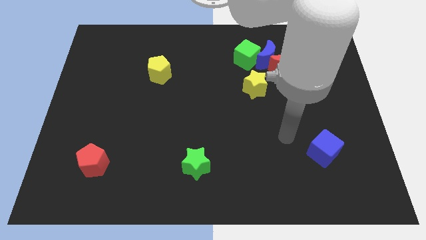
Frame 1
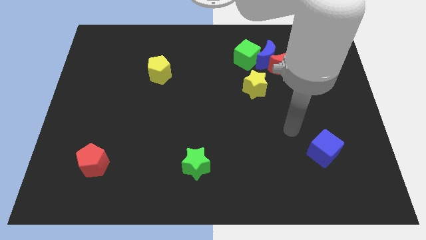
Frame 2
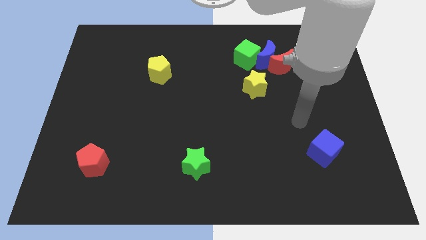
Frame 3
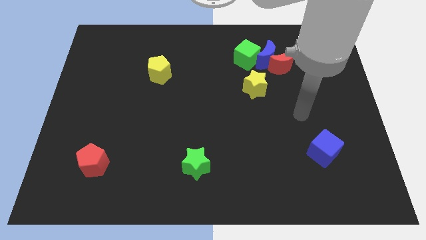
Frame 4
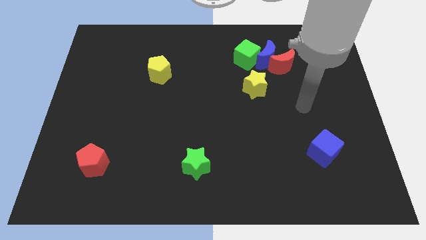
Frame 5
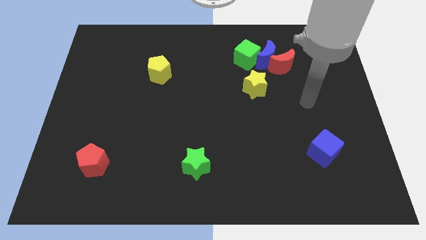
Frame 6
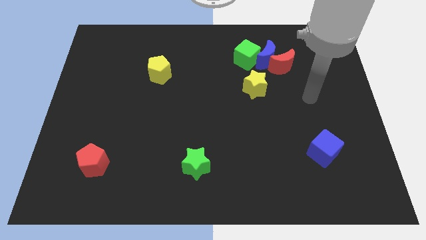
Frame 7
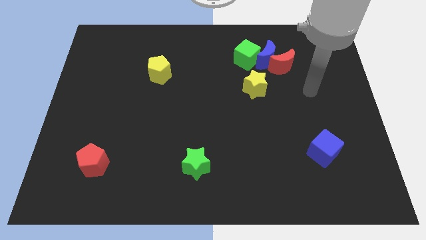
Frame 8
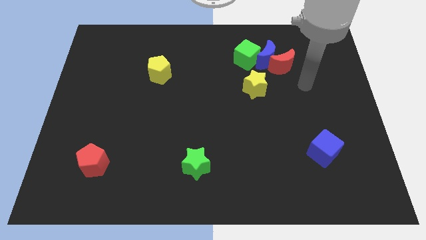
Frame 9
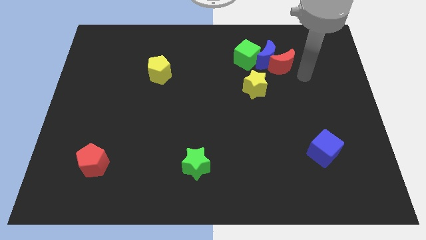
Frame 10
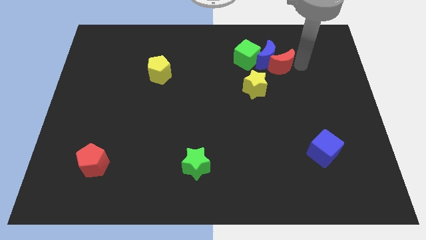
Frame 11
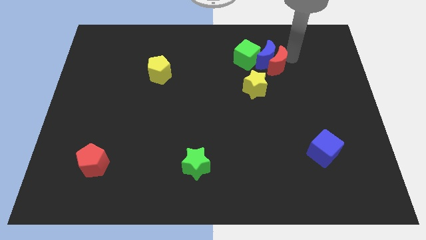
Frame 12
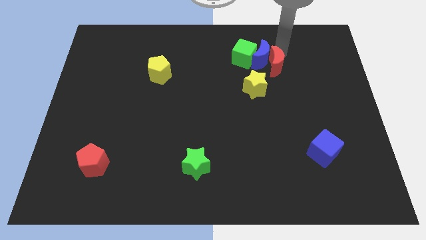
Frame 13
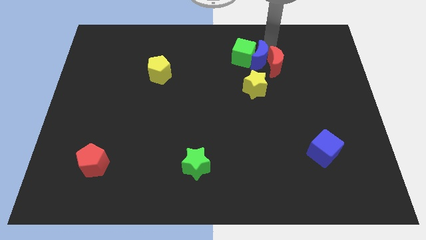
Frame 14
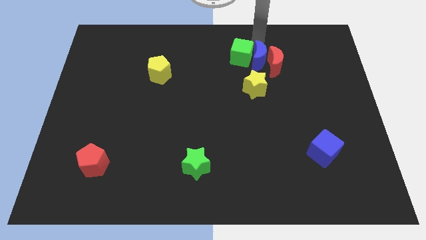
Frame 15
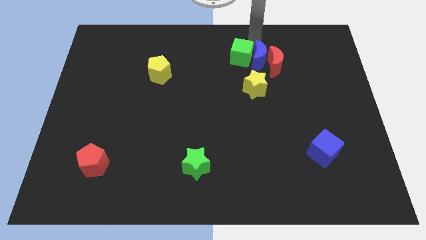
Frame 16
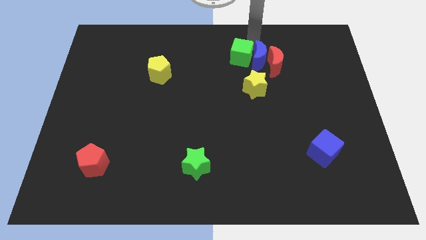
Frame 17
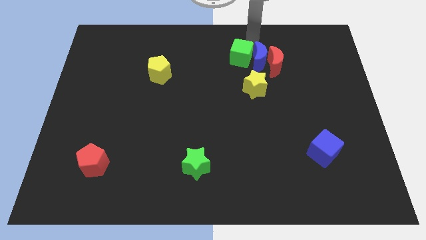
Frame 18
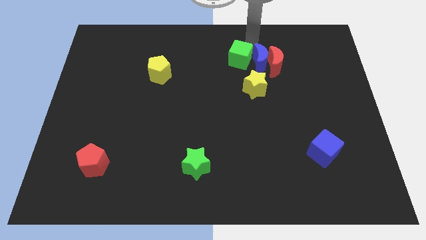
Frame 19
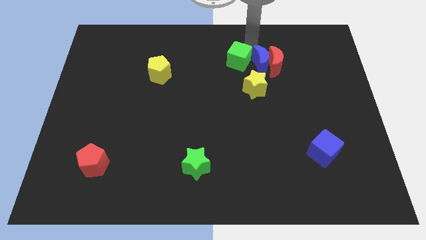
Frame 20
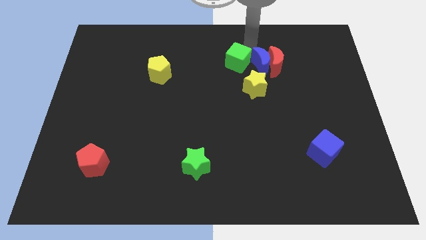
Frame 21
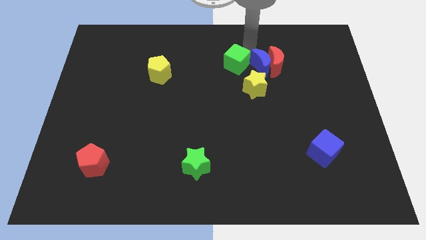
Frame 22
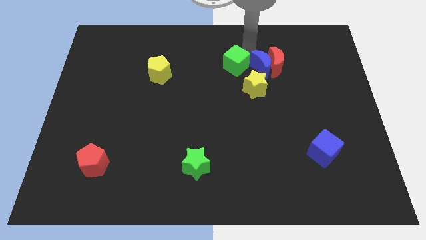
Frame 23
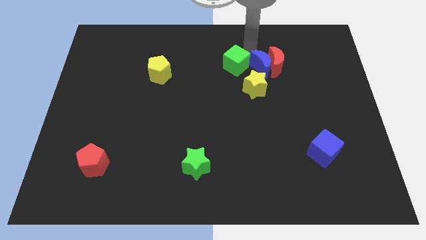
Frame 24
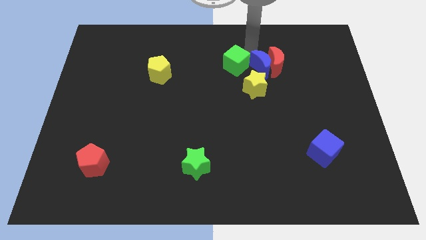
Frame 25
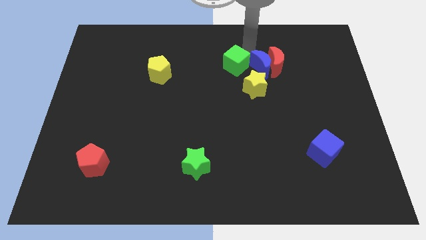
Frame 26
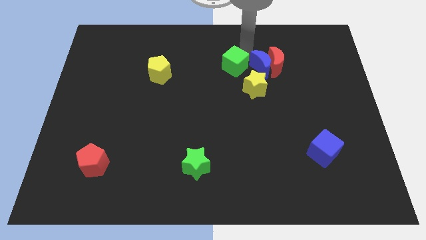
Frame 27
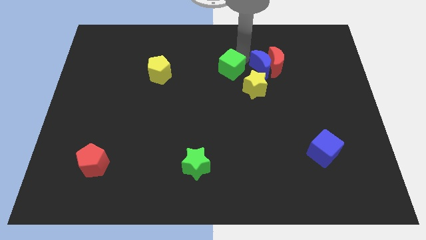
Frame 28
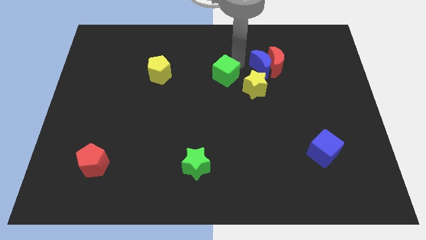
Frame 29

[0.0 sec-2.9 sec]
slightly push the green cube down and then to the left

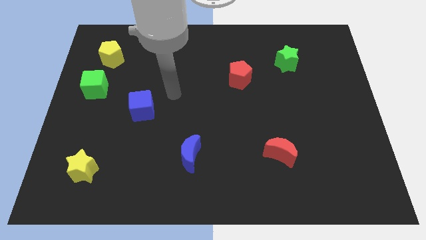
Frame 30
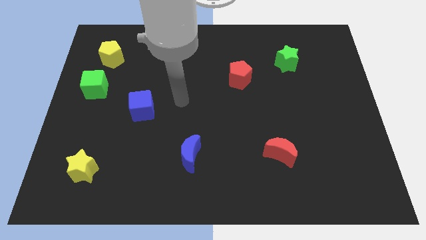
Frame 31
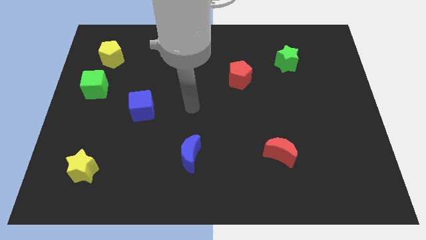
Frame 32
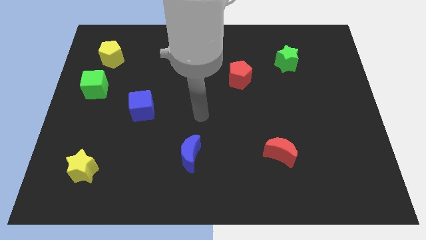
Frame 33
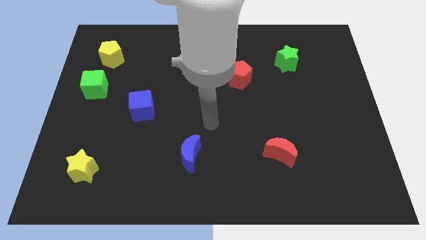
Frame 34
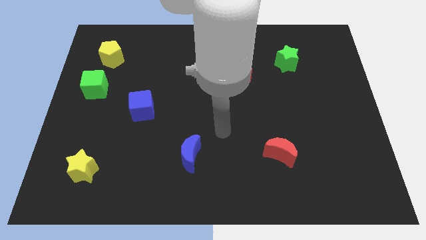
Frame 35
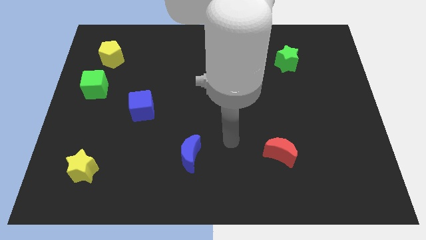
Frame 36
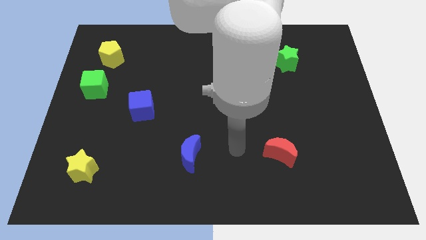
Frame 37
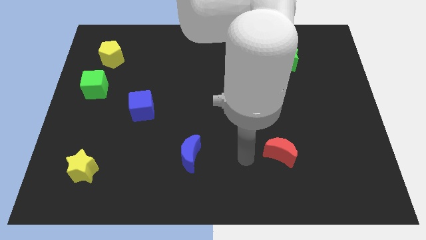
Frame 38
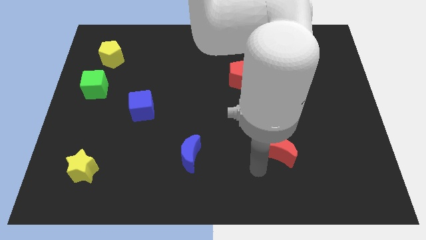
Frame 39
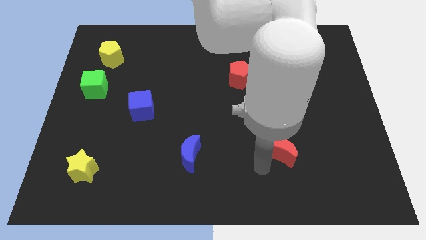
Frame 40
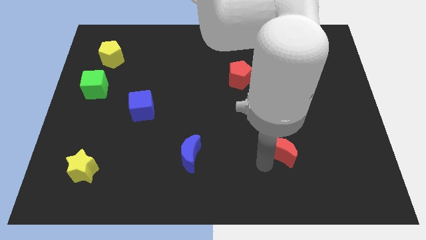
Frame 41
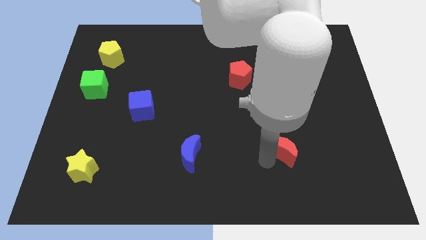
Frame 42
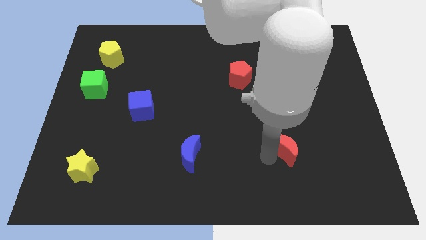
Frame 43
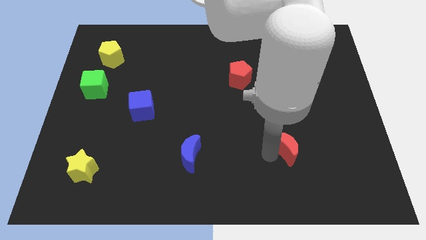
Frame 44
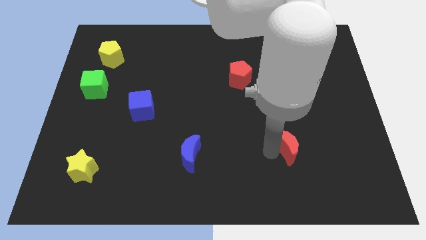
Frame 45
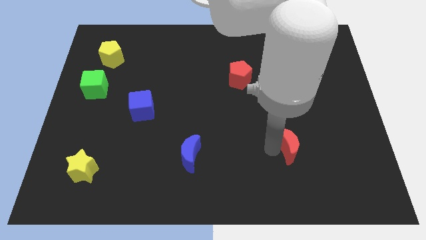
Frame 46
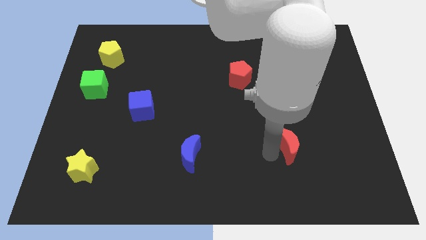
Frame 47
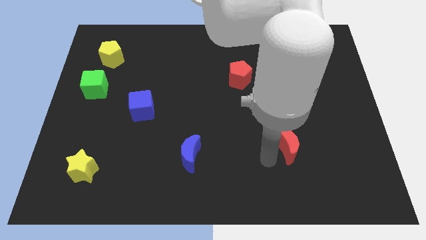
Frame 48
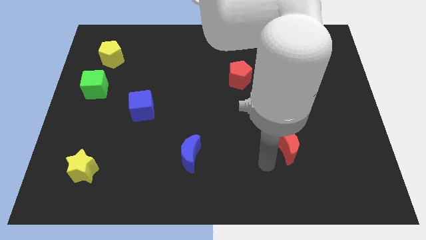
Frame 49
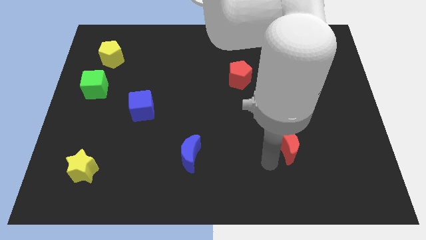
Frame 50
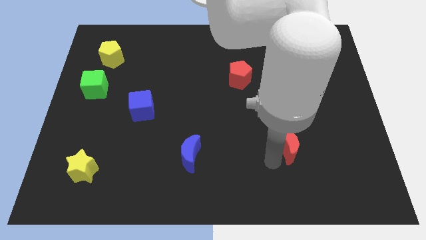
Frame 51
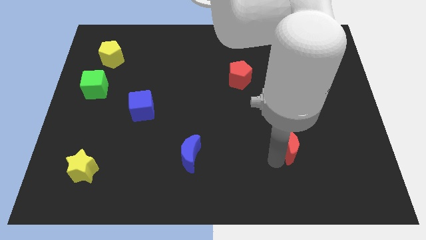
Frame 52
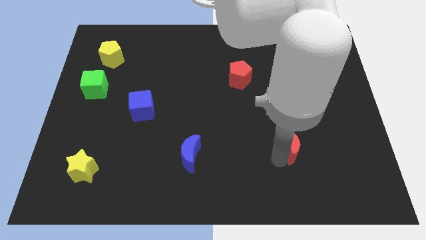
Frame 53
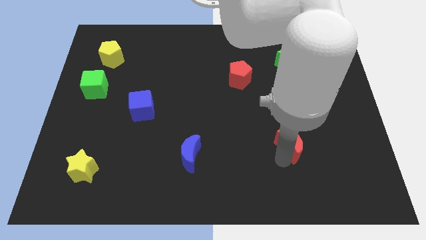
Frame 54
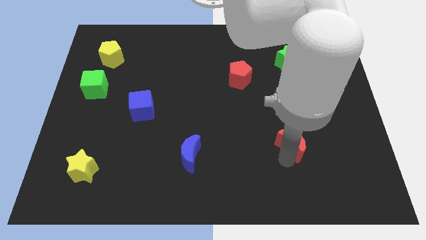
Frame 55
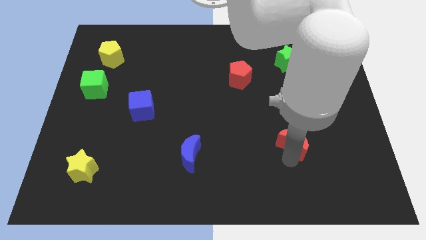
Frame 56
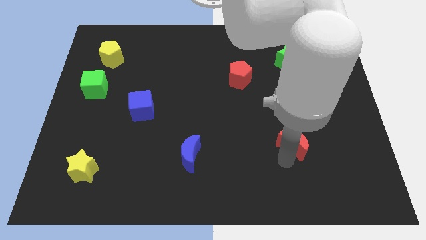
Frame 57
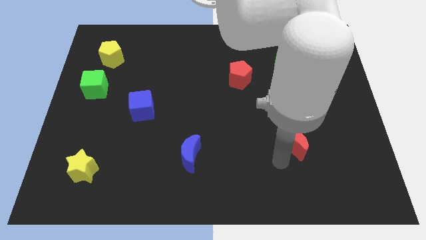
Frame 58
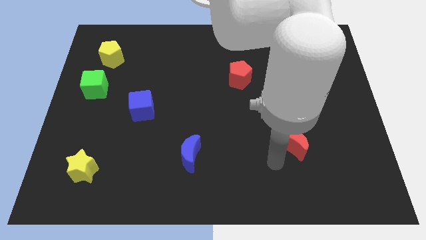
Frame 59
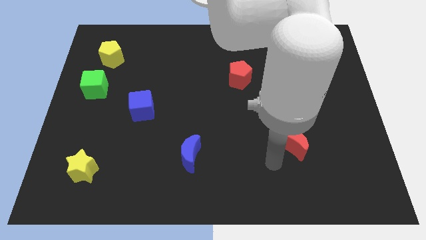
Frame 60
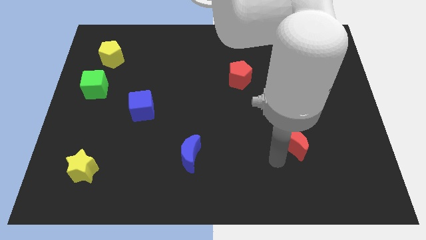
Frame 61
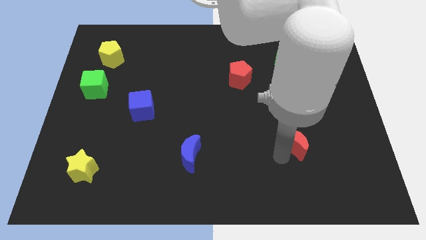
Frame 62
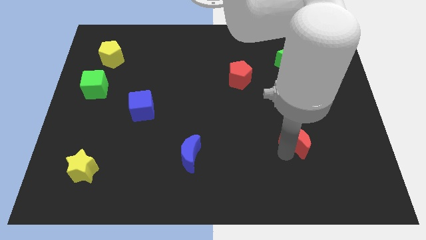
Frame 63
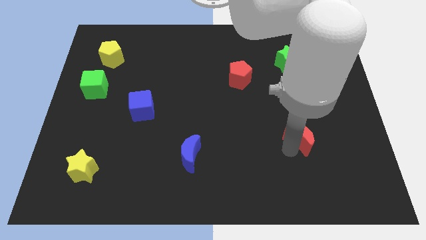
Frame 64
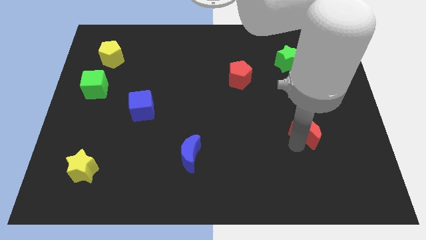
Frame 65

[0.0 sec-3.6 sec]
push the red moon slightly diagonally upwards and right

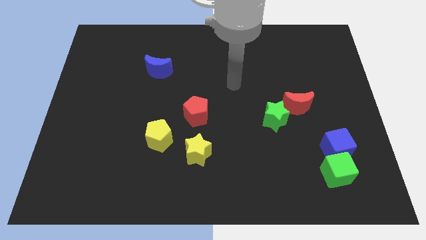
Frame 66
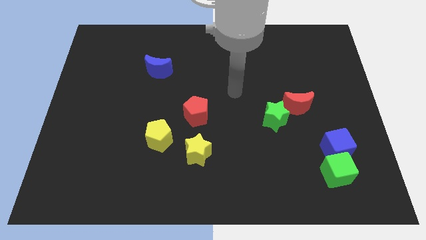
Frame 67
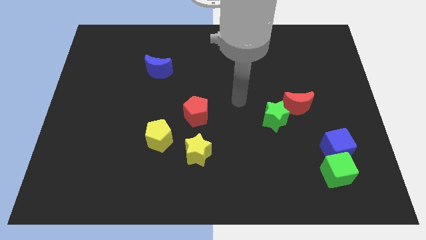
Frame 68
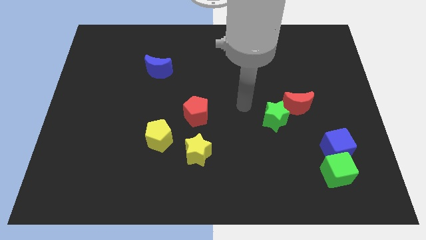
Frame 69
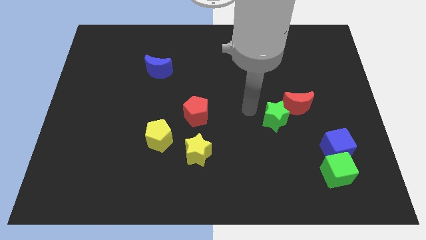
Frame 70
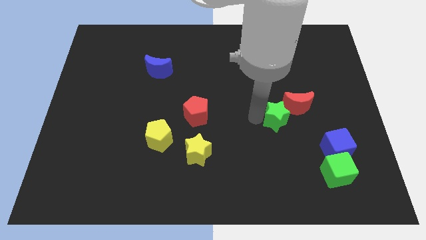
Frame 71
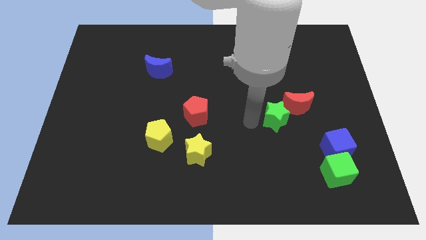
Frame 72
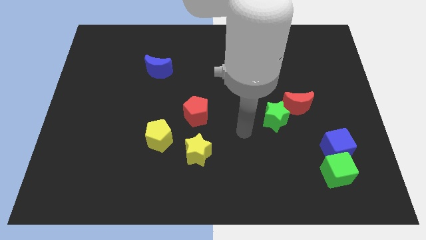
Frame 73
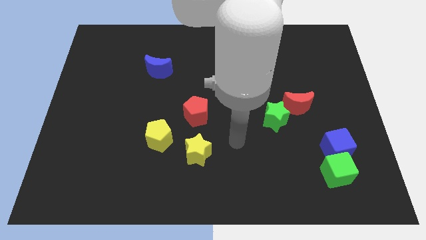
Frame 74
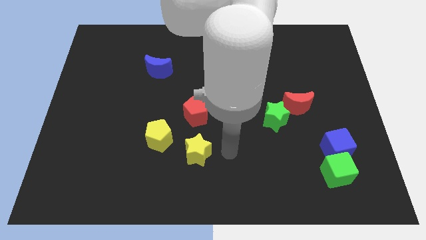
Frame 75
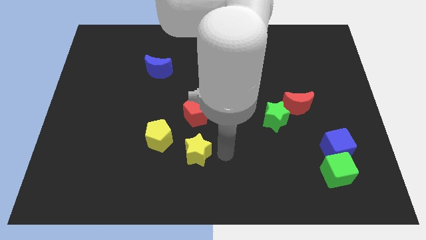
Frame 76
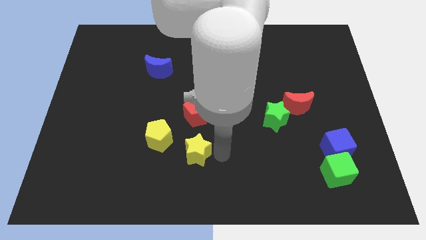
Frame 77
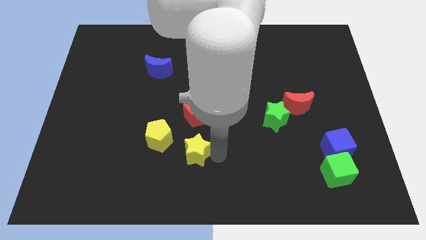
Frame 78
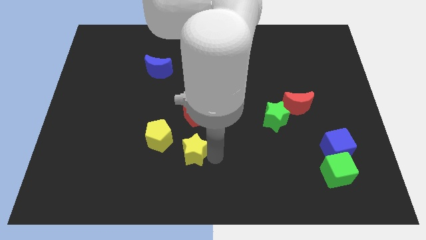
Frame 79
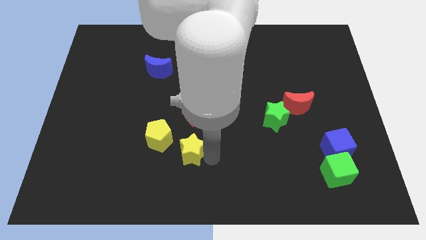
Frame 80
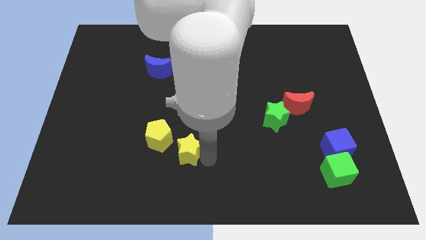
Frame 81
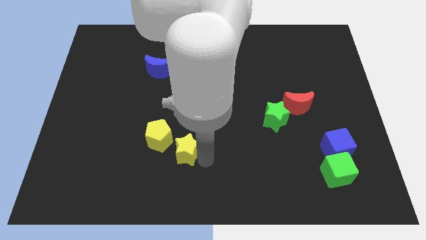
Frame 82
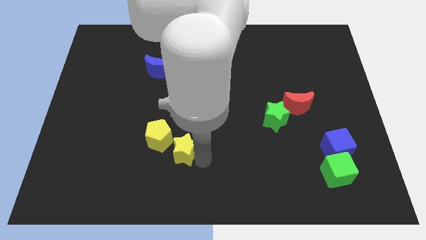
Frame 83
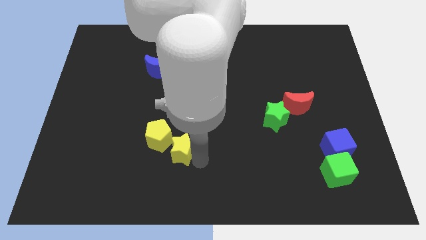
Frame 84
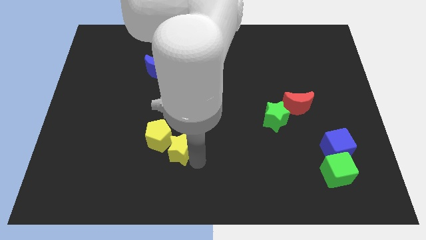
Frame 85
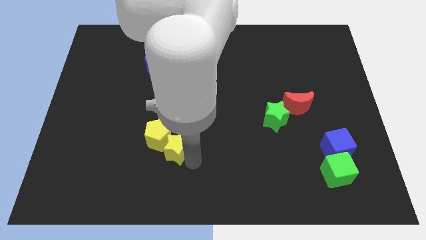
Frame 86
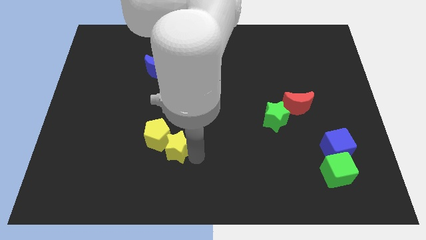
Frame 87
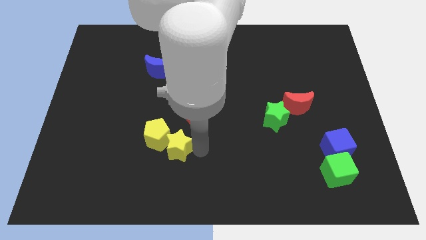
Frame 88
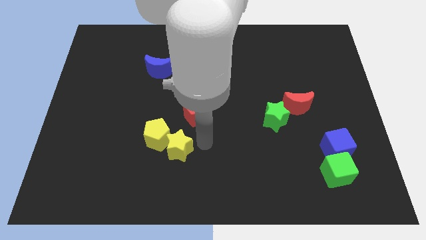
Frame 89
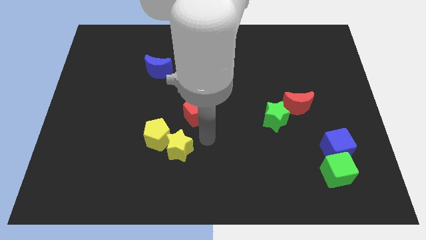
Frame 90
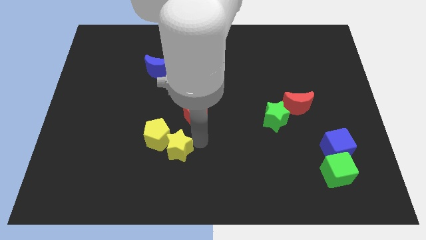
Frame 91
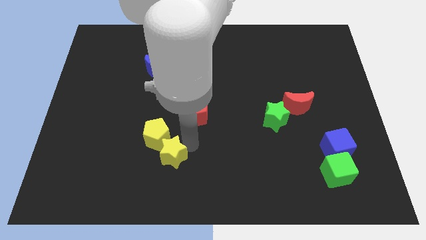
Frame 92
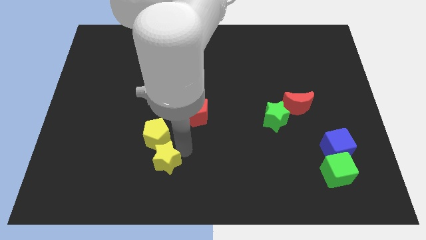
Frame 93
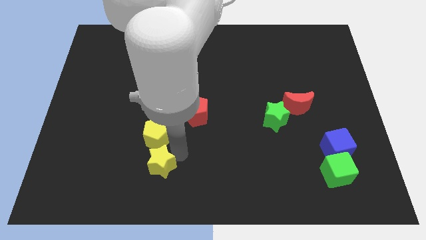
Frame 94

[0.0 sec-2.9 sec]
slightly push the yellow star left
